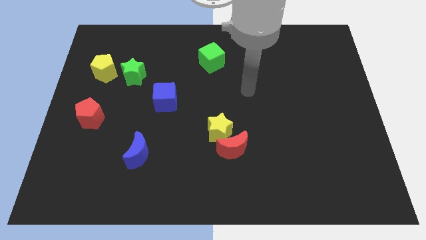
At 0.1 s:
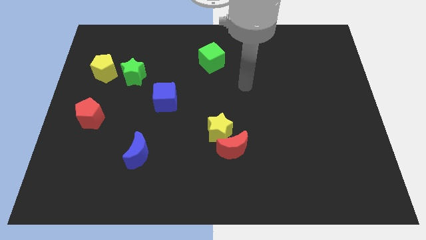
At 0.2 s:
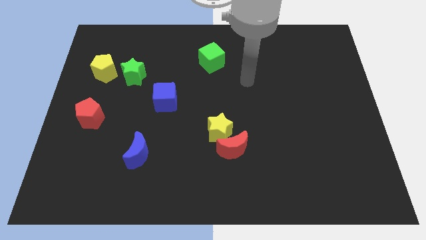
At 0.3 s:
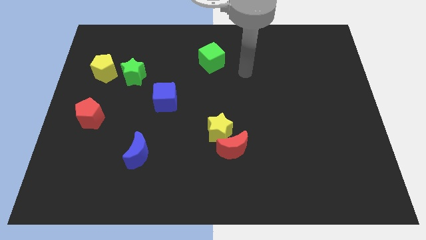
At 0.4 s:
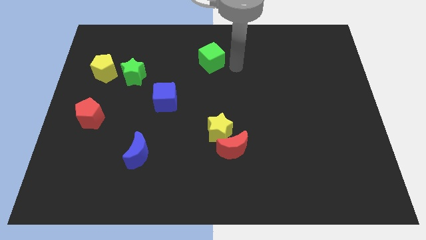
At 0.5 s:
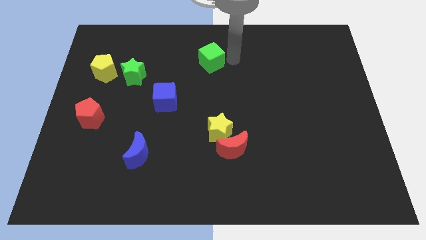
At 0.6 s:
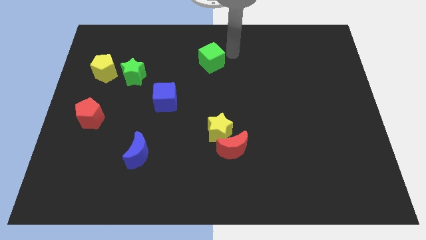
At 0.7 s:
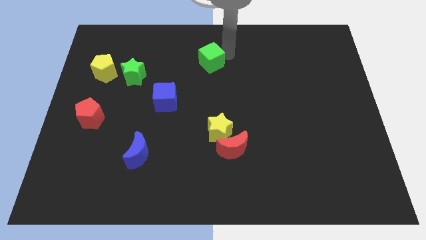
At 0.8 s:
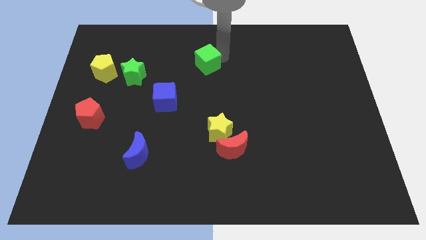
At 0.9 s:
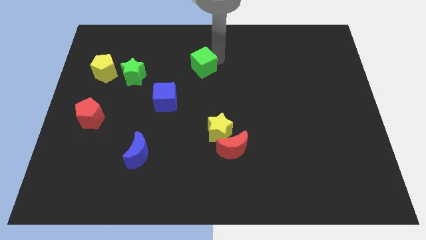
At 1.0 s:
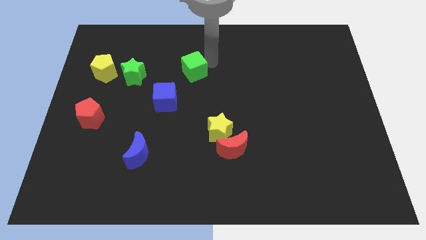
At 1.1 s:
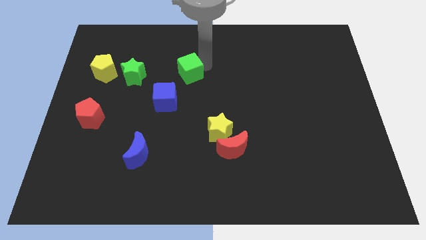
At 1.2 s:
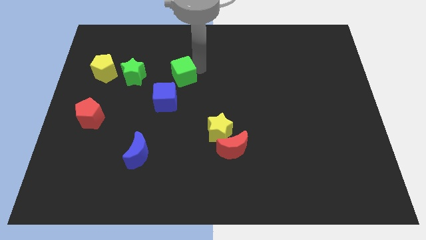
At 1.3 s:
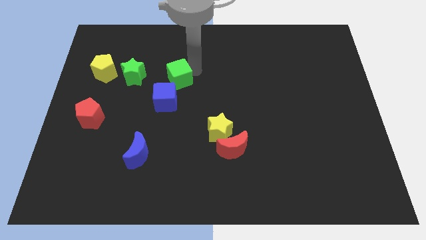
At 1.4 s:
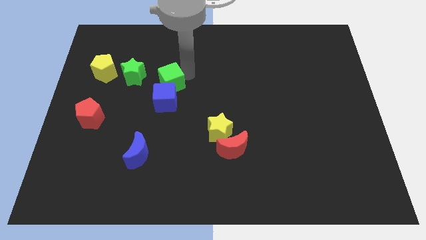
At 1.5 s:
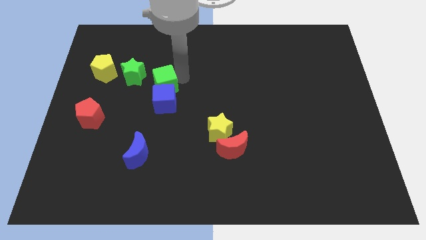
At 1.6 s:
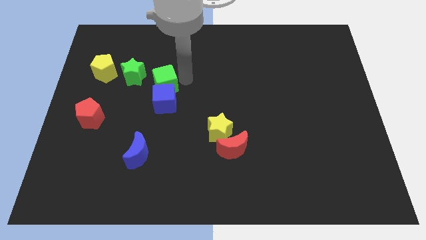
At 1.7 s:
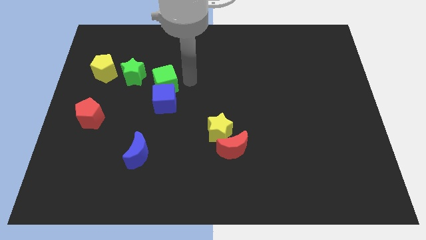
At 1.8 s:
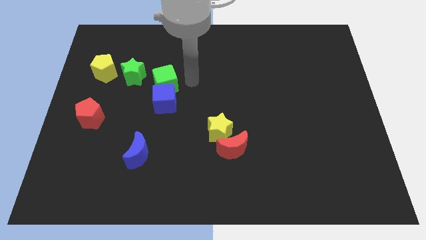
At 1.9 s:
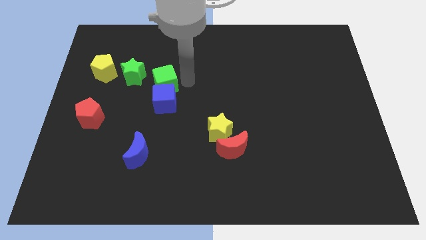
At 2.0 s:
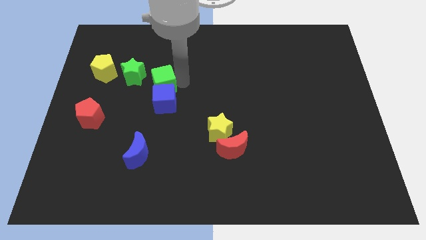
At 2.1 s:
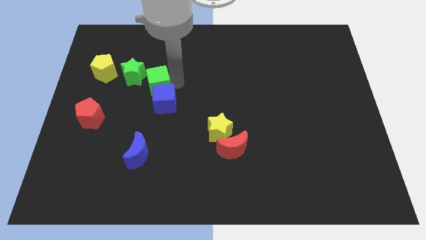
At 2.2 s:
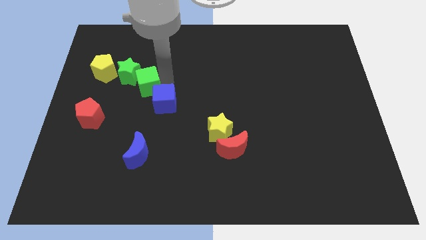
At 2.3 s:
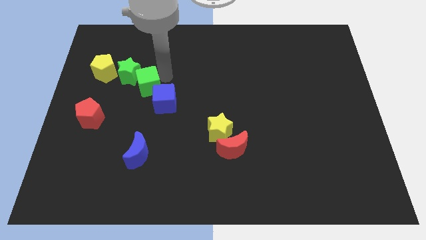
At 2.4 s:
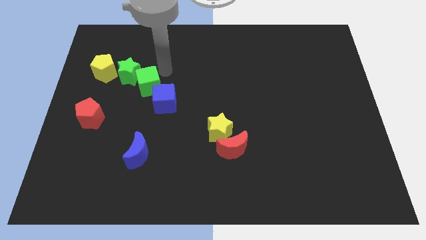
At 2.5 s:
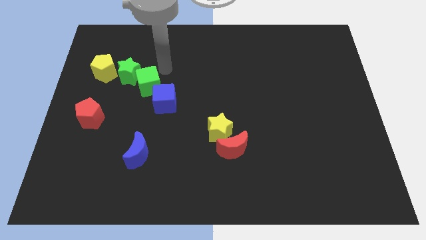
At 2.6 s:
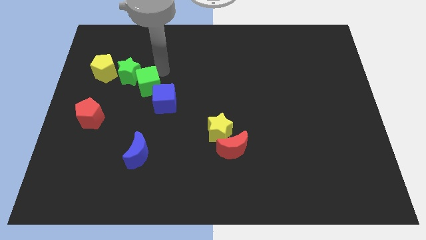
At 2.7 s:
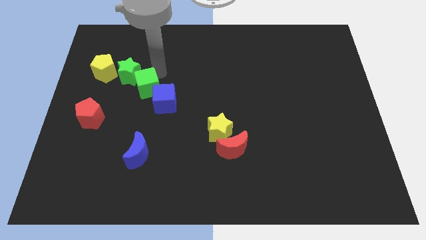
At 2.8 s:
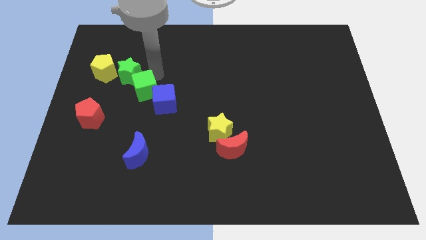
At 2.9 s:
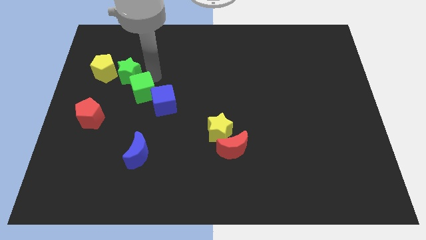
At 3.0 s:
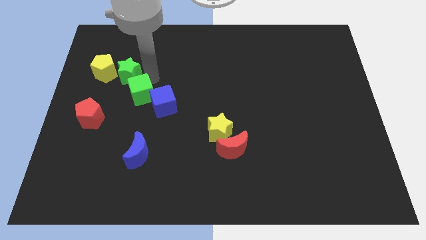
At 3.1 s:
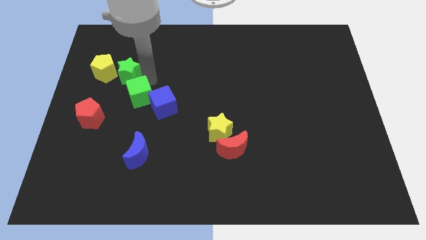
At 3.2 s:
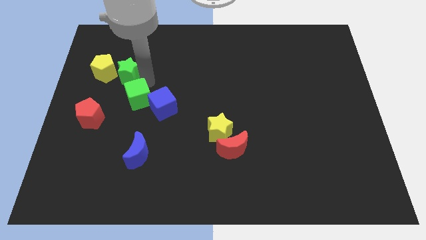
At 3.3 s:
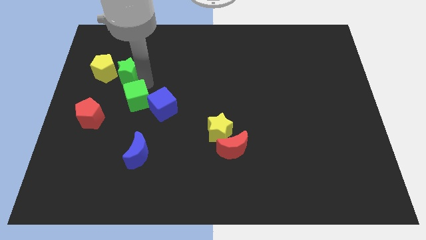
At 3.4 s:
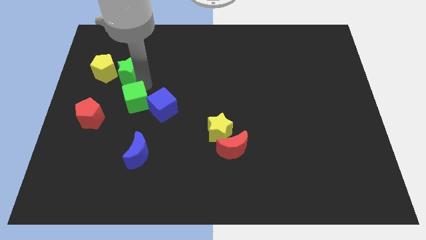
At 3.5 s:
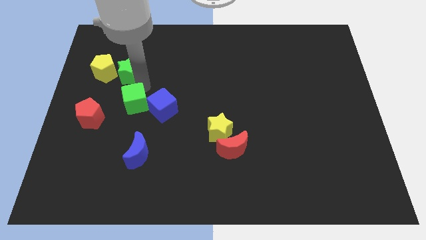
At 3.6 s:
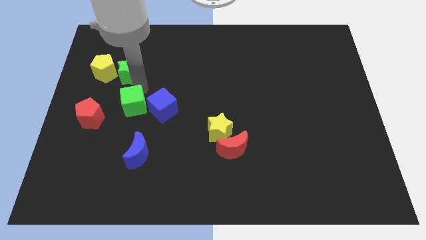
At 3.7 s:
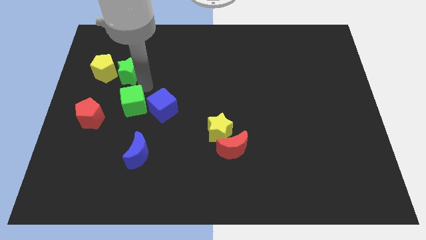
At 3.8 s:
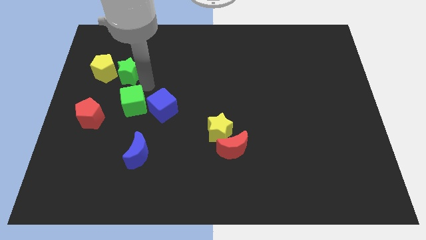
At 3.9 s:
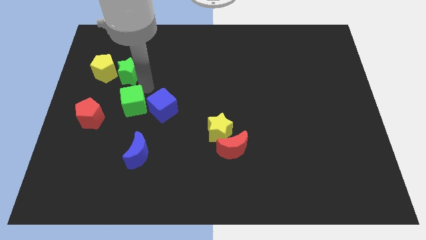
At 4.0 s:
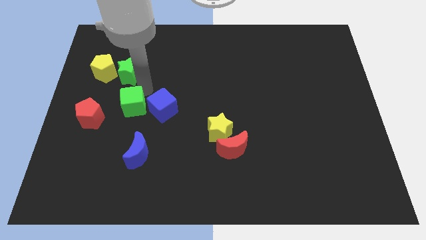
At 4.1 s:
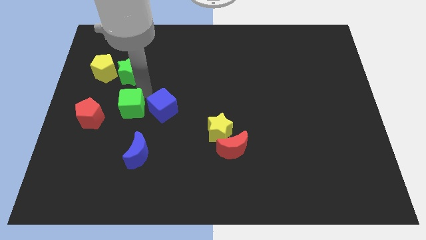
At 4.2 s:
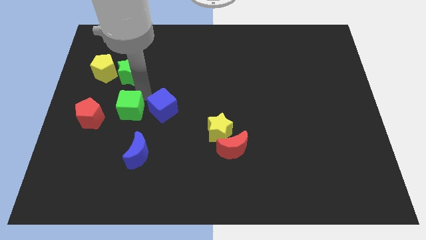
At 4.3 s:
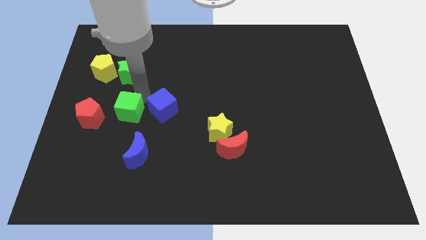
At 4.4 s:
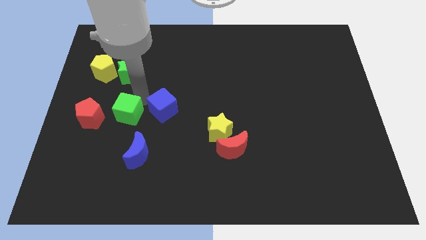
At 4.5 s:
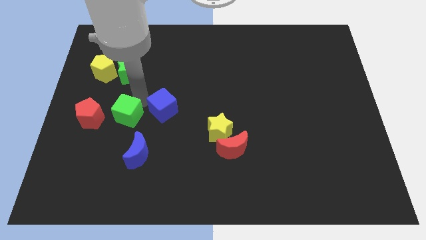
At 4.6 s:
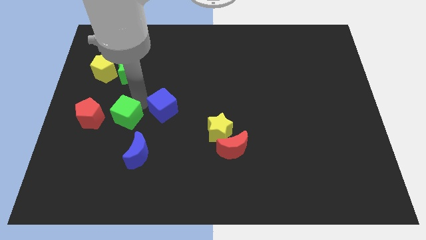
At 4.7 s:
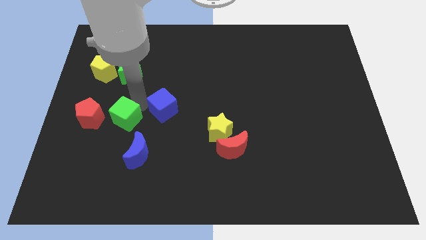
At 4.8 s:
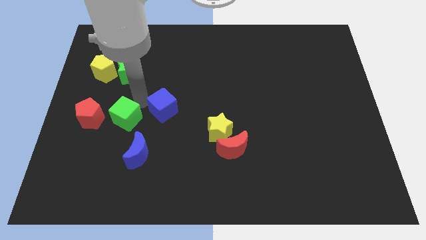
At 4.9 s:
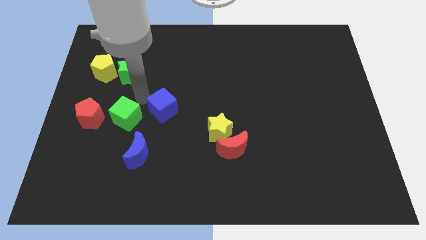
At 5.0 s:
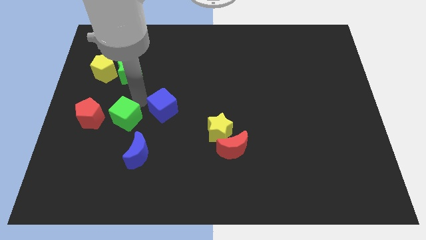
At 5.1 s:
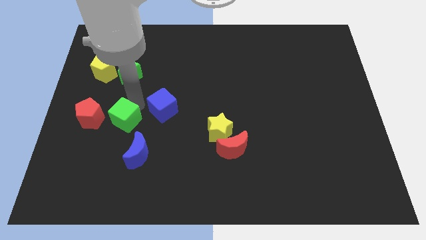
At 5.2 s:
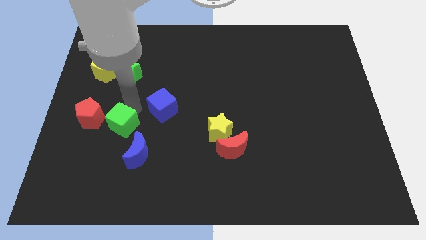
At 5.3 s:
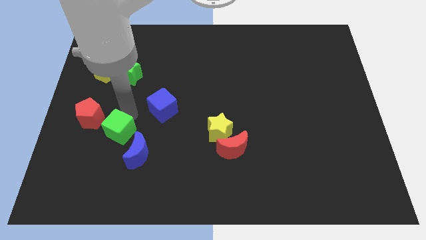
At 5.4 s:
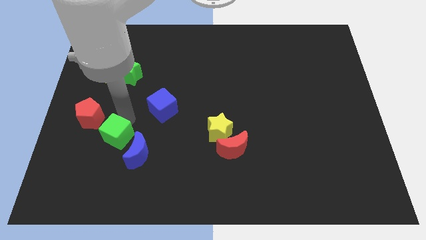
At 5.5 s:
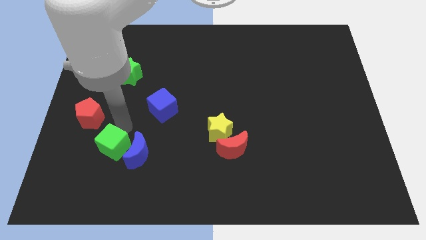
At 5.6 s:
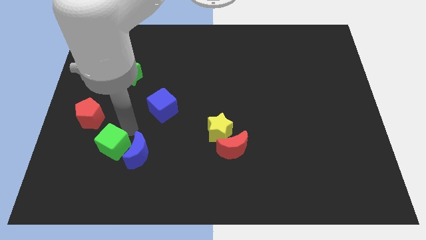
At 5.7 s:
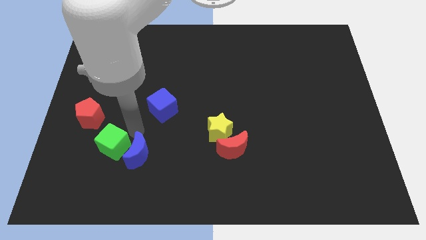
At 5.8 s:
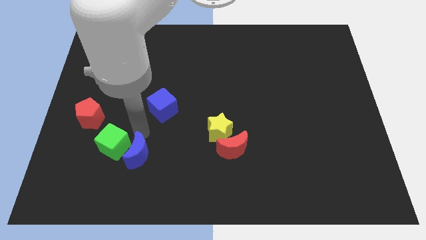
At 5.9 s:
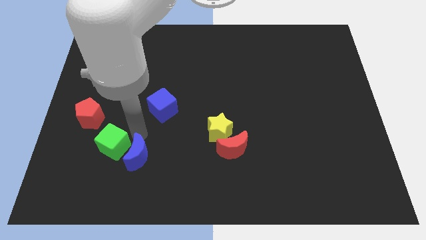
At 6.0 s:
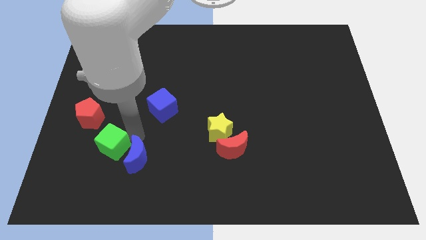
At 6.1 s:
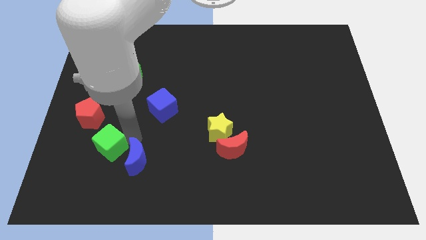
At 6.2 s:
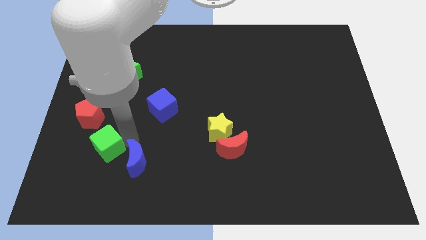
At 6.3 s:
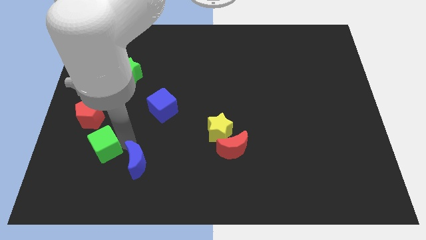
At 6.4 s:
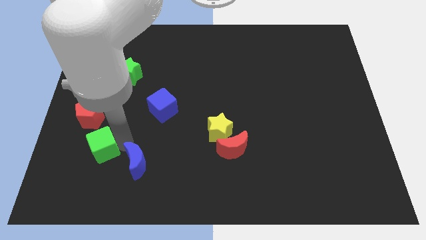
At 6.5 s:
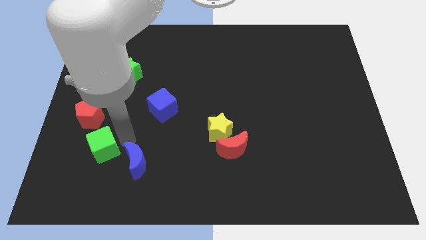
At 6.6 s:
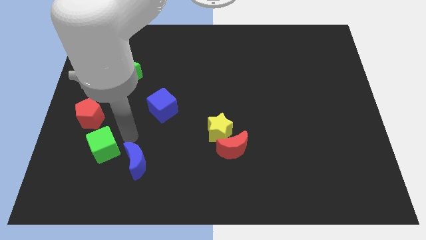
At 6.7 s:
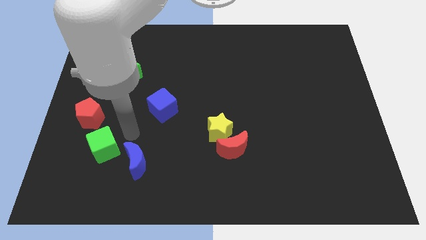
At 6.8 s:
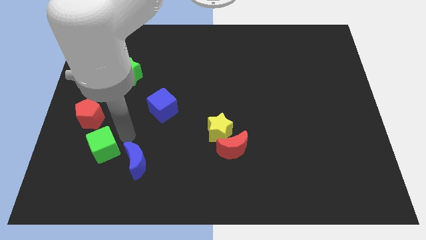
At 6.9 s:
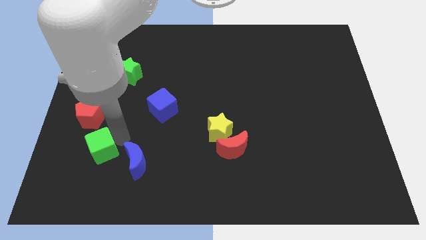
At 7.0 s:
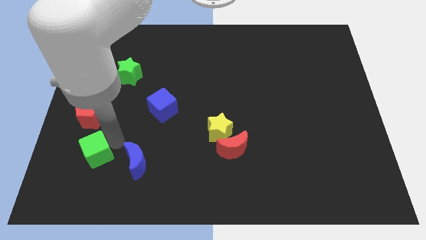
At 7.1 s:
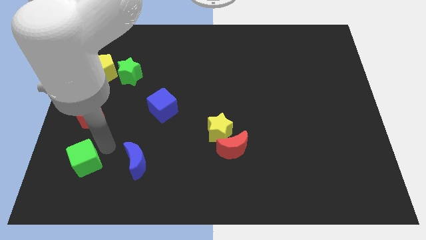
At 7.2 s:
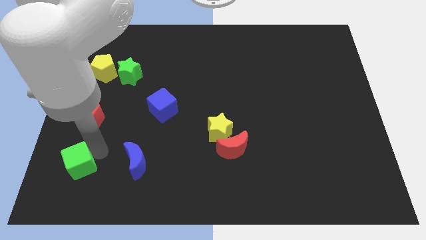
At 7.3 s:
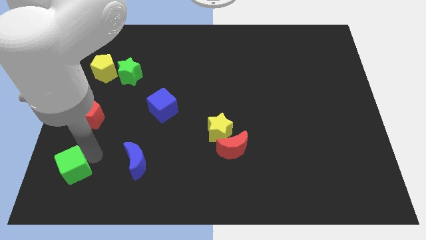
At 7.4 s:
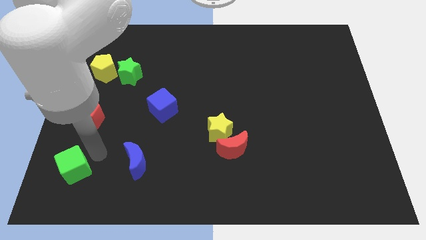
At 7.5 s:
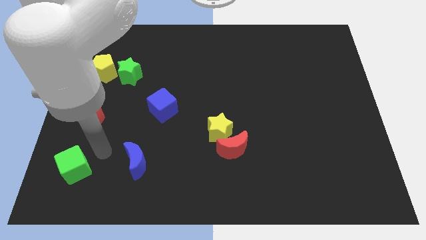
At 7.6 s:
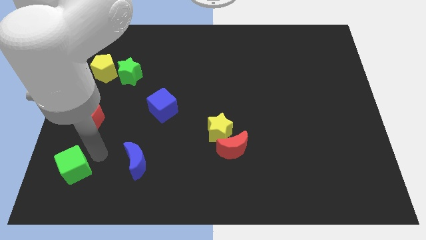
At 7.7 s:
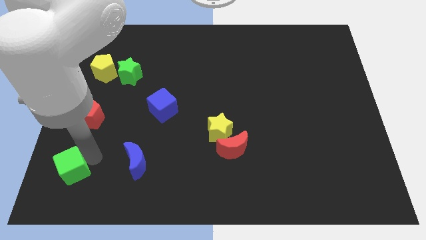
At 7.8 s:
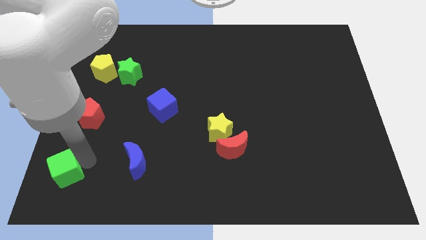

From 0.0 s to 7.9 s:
slide the green cube to the bottom left of the board
